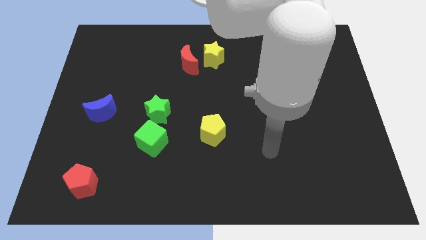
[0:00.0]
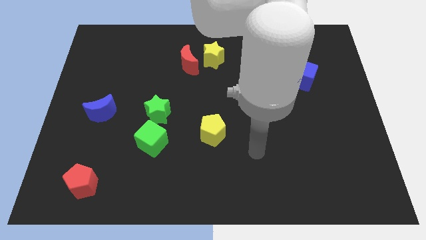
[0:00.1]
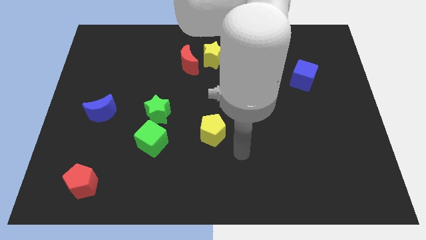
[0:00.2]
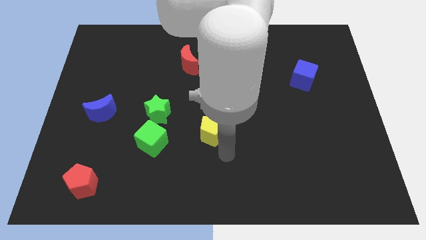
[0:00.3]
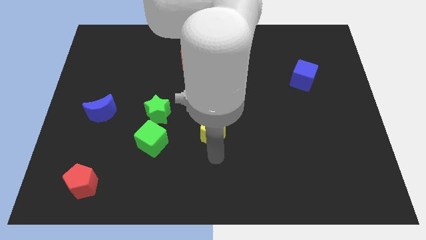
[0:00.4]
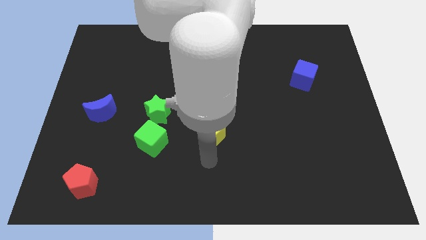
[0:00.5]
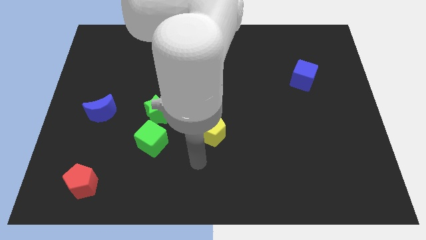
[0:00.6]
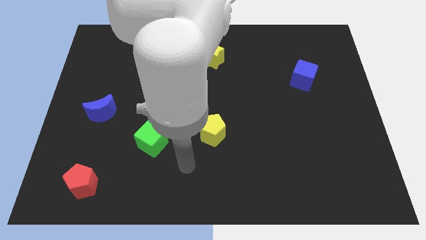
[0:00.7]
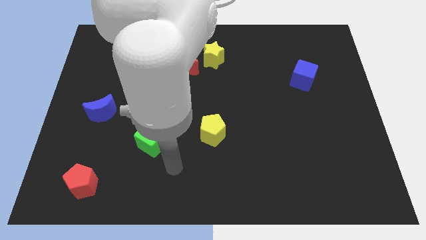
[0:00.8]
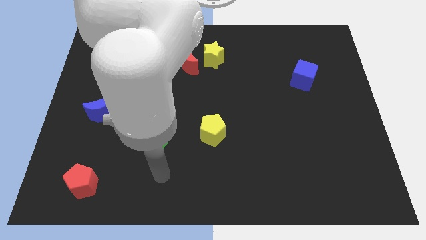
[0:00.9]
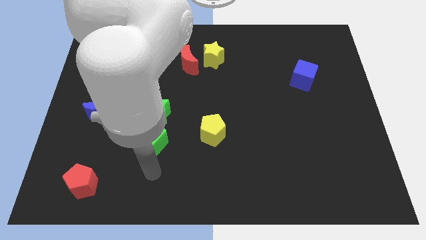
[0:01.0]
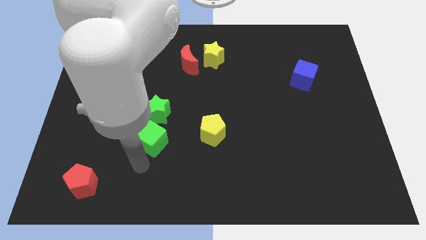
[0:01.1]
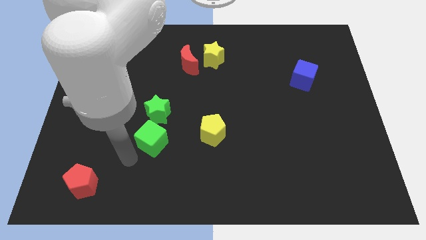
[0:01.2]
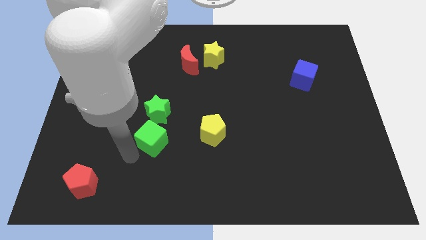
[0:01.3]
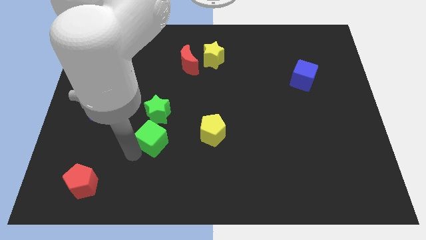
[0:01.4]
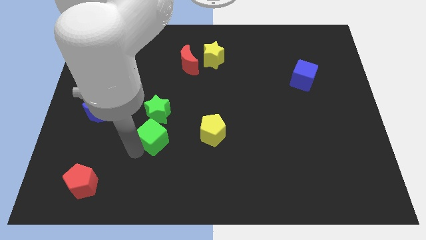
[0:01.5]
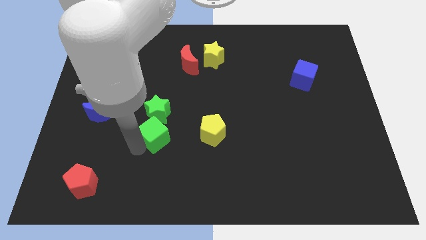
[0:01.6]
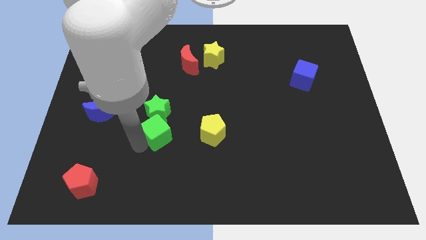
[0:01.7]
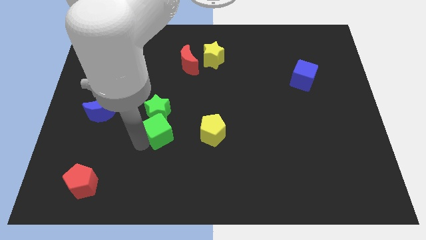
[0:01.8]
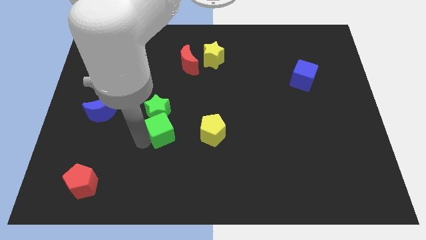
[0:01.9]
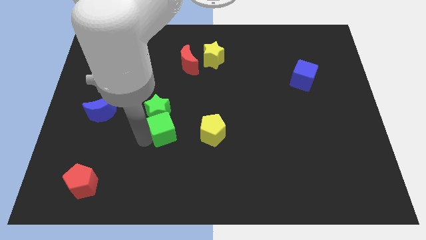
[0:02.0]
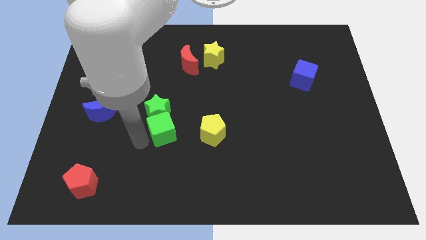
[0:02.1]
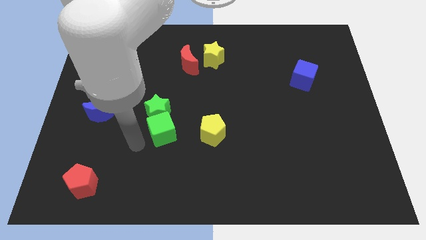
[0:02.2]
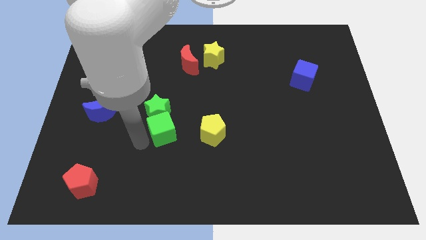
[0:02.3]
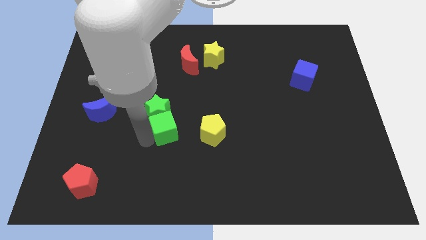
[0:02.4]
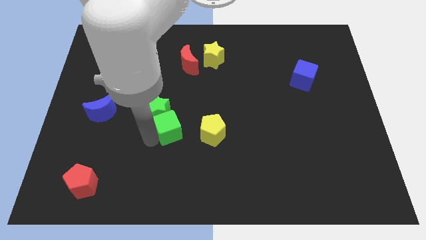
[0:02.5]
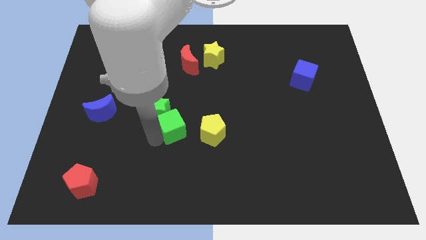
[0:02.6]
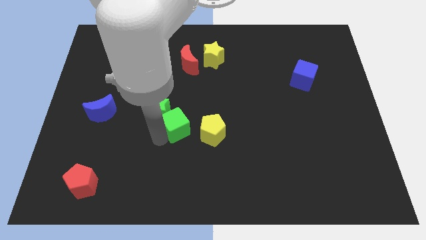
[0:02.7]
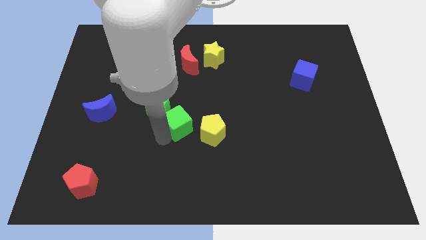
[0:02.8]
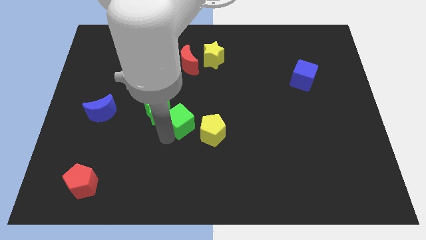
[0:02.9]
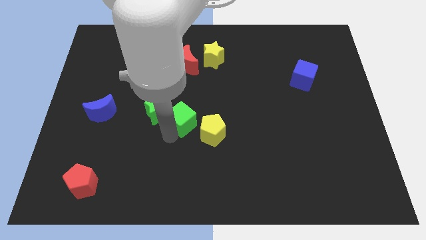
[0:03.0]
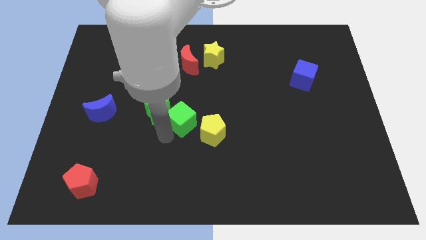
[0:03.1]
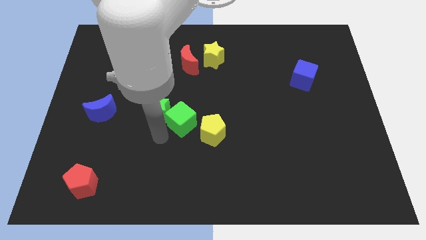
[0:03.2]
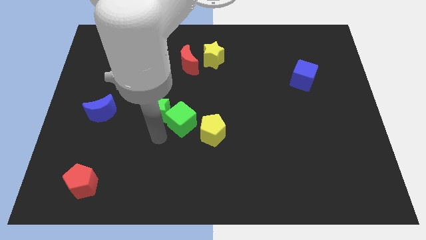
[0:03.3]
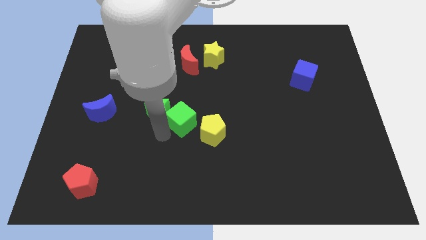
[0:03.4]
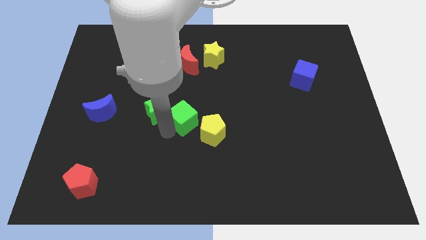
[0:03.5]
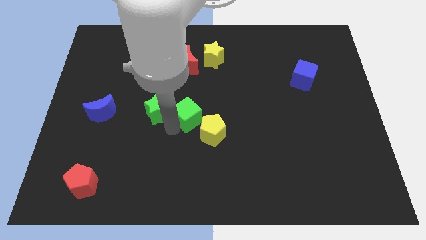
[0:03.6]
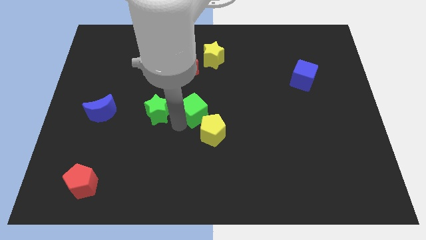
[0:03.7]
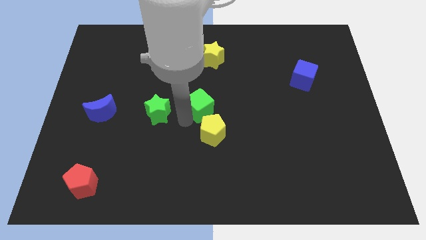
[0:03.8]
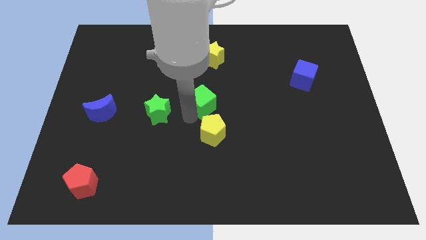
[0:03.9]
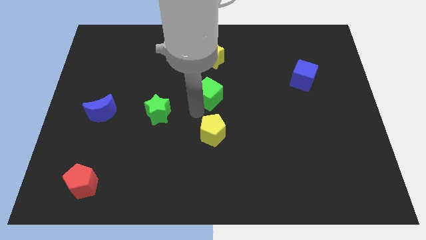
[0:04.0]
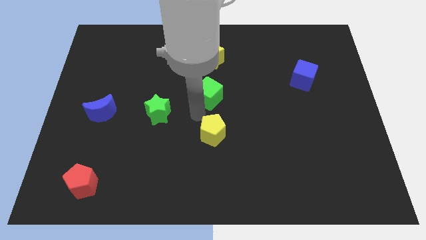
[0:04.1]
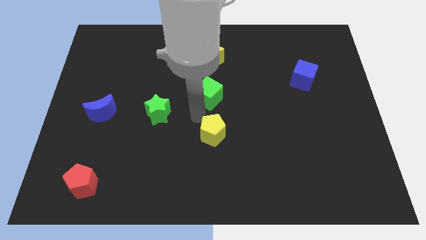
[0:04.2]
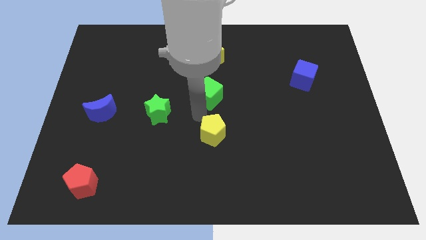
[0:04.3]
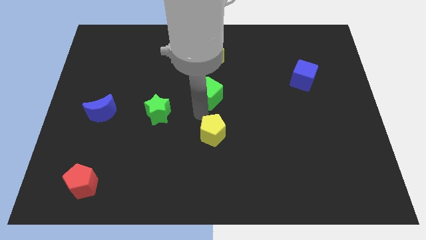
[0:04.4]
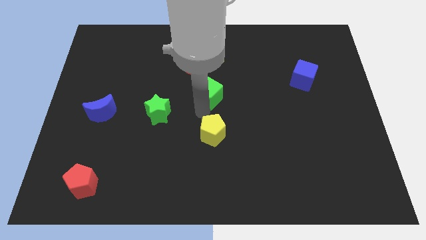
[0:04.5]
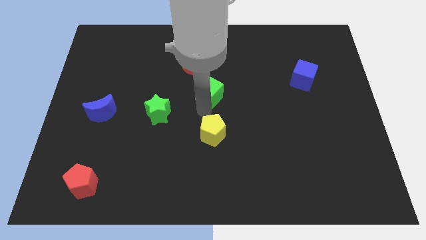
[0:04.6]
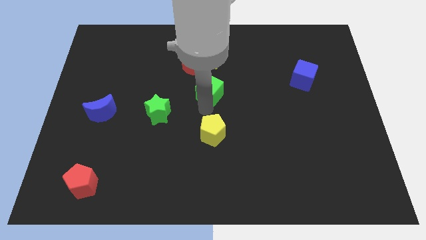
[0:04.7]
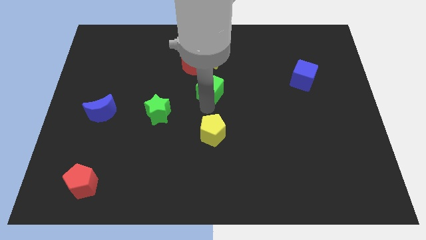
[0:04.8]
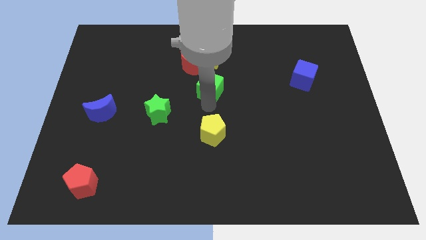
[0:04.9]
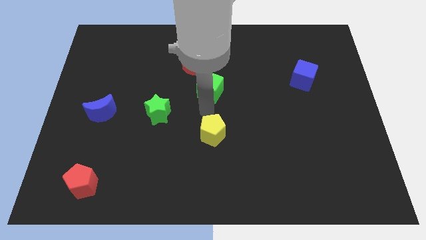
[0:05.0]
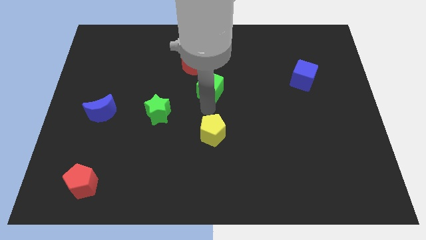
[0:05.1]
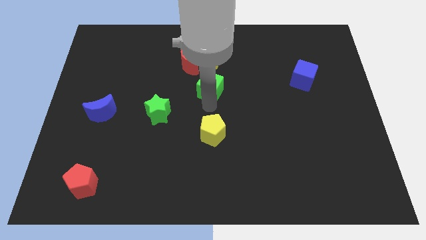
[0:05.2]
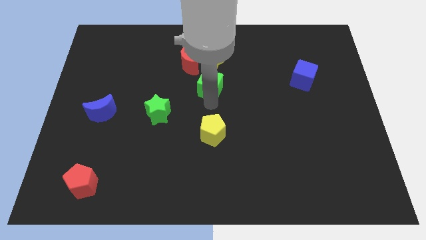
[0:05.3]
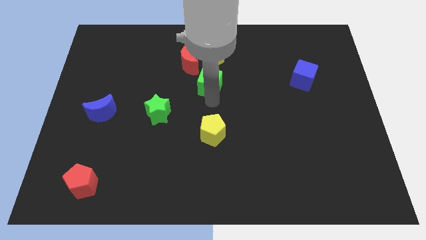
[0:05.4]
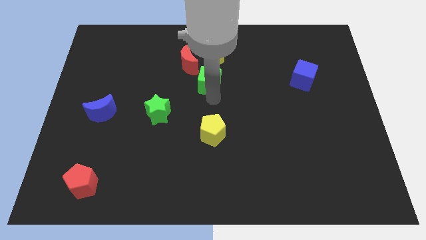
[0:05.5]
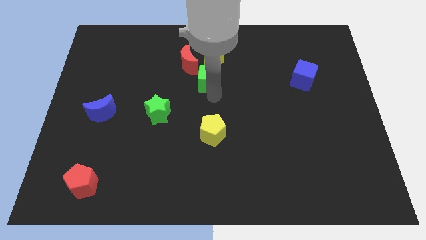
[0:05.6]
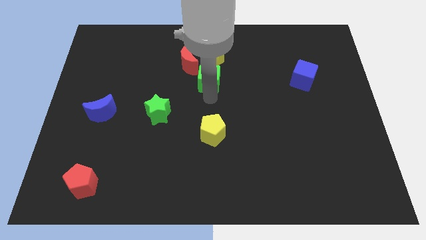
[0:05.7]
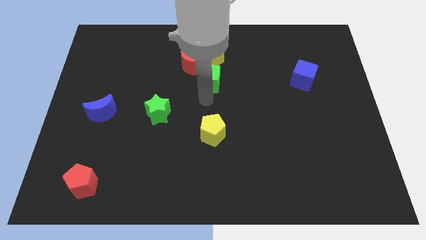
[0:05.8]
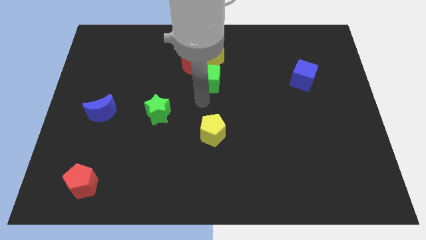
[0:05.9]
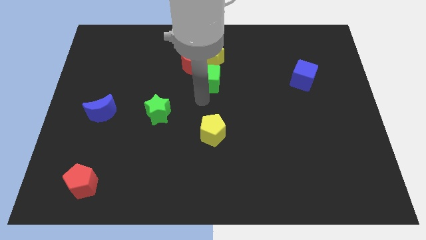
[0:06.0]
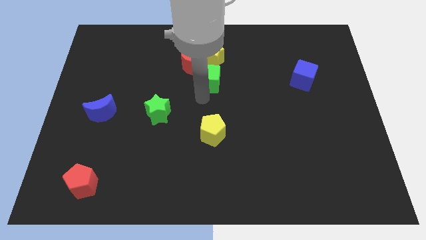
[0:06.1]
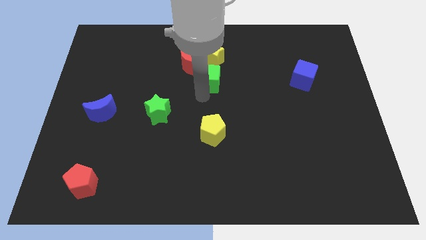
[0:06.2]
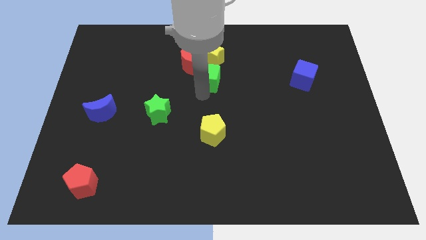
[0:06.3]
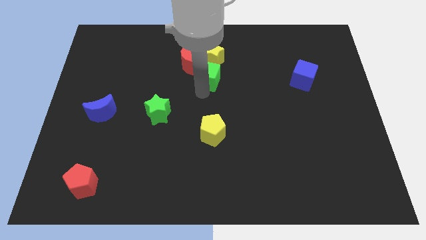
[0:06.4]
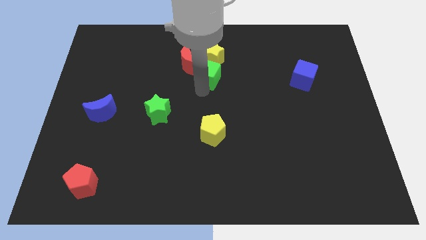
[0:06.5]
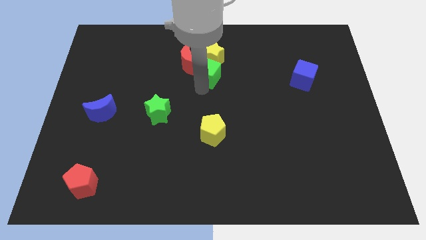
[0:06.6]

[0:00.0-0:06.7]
move the green cube to the yellow star
